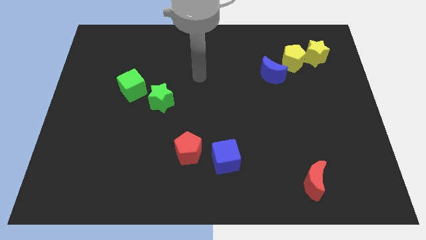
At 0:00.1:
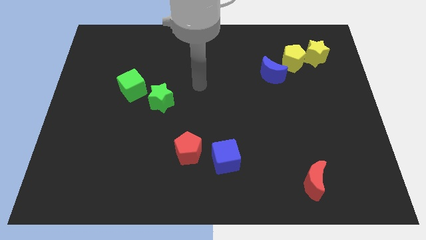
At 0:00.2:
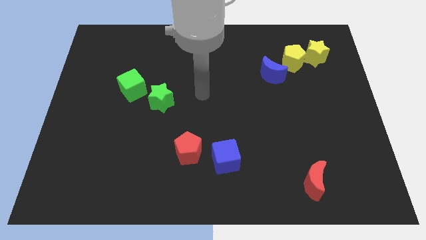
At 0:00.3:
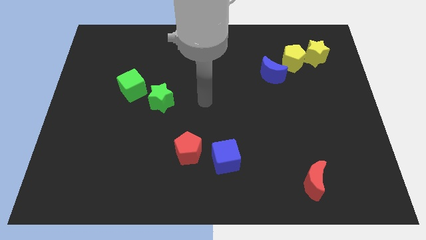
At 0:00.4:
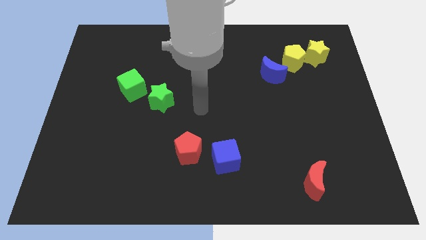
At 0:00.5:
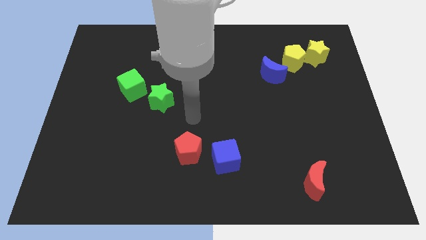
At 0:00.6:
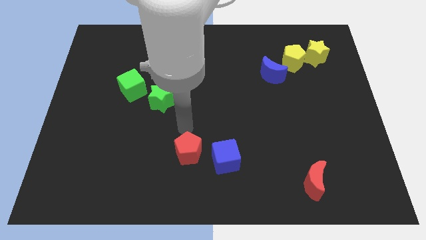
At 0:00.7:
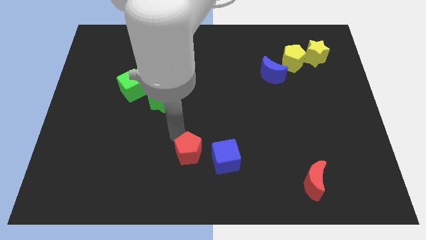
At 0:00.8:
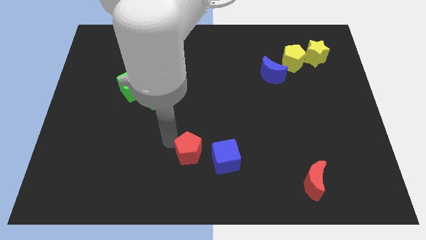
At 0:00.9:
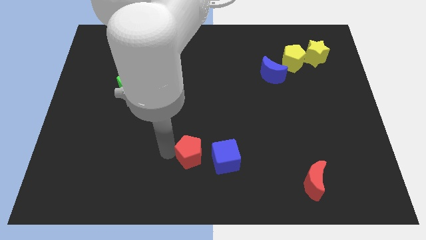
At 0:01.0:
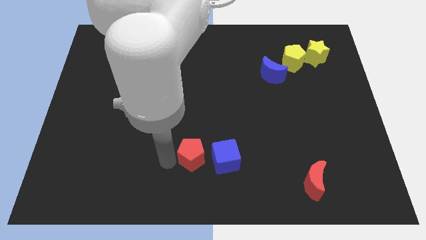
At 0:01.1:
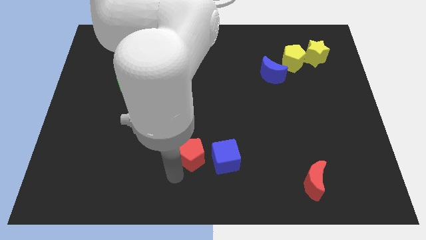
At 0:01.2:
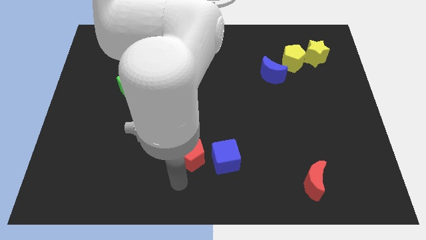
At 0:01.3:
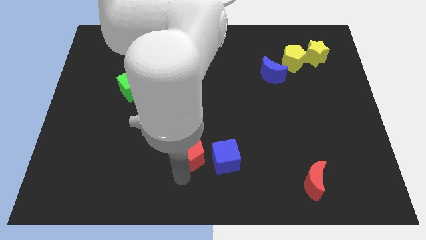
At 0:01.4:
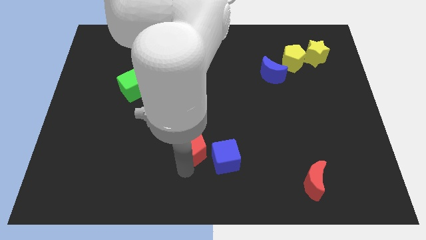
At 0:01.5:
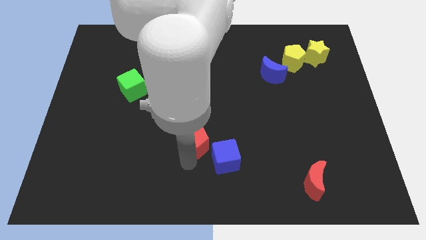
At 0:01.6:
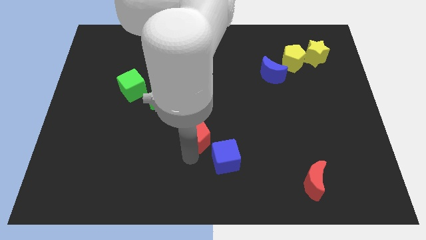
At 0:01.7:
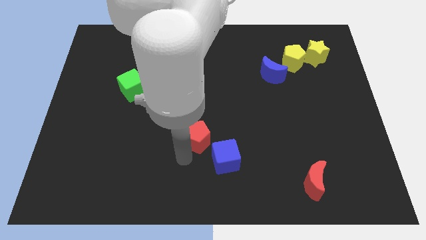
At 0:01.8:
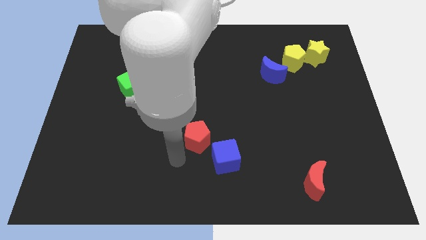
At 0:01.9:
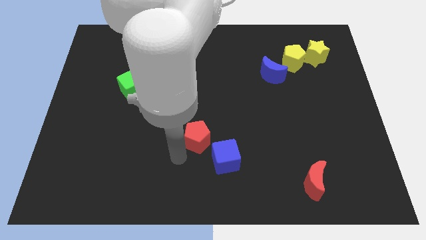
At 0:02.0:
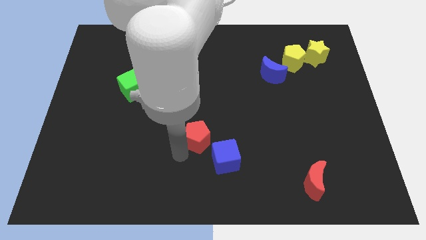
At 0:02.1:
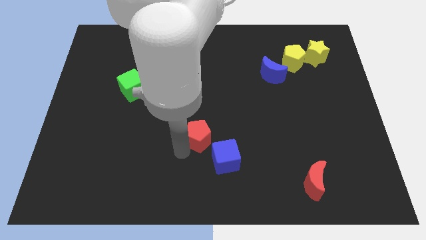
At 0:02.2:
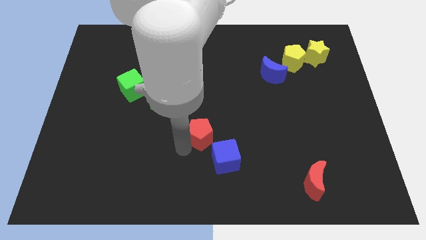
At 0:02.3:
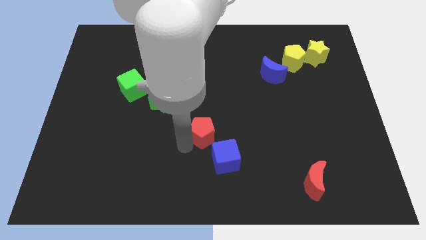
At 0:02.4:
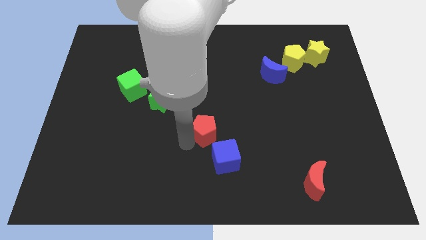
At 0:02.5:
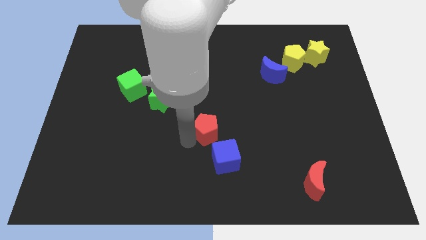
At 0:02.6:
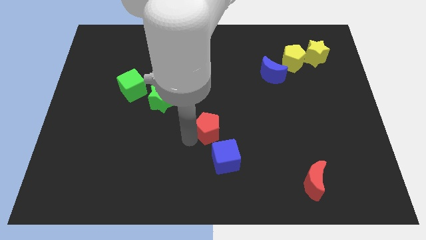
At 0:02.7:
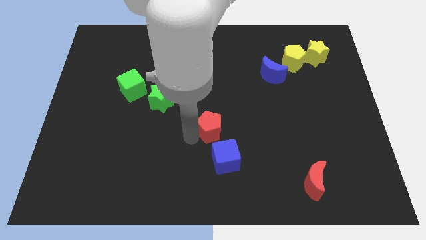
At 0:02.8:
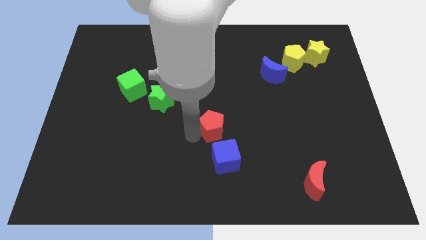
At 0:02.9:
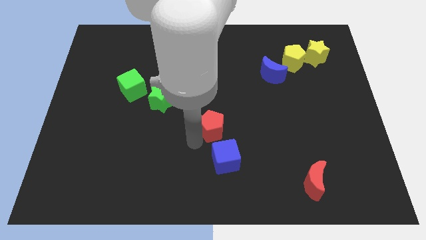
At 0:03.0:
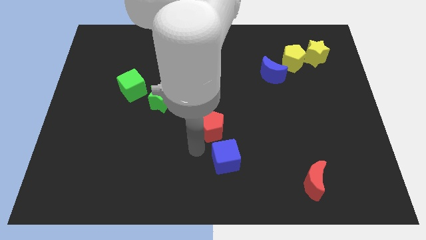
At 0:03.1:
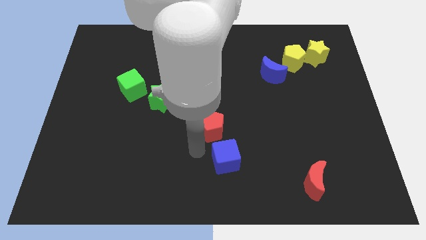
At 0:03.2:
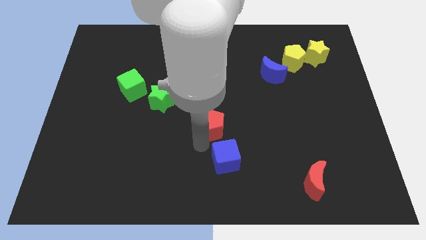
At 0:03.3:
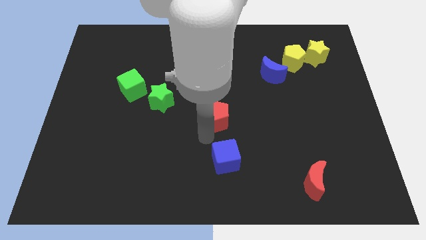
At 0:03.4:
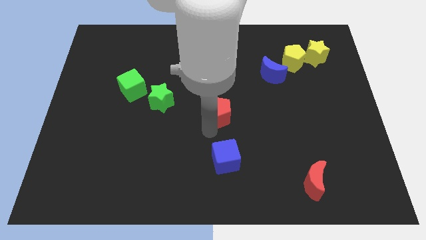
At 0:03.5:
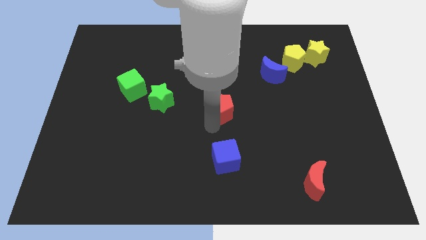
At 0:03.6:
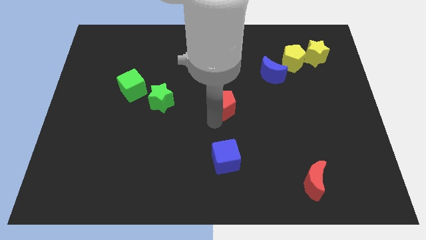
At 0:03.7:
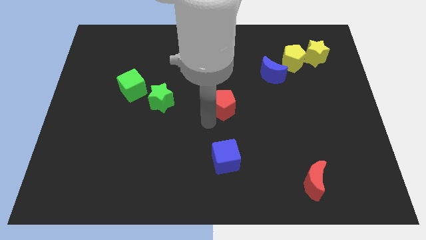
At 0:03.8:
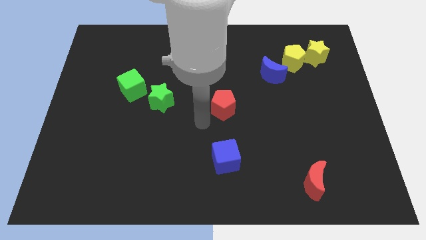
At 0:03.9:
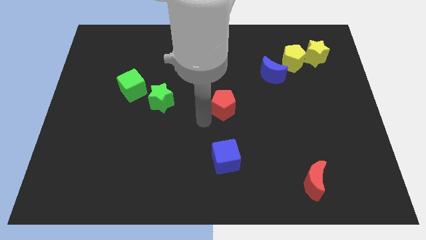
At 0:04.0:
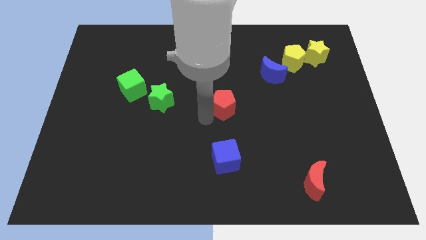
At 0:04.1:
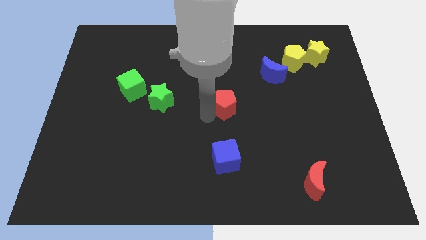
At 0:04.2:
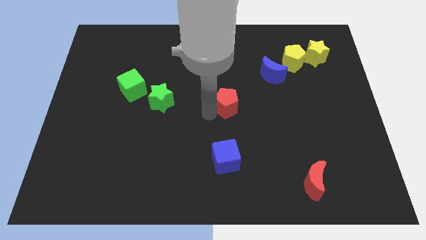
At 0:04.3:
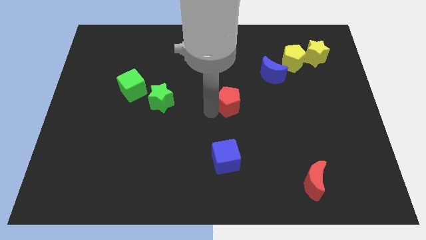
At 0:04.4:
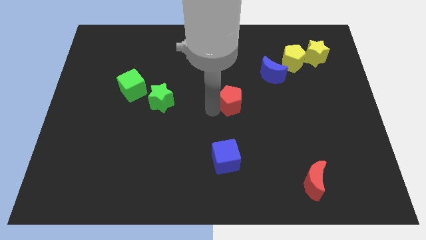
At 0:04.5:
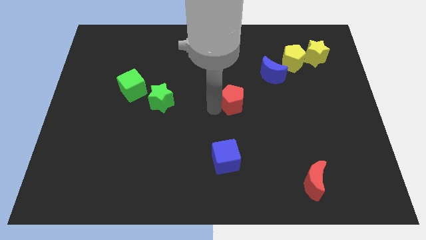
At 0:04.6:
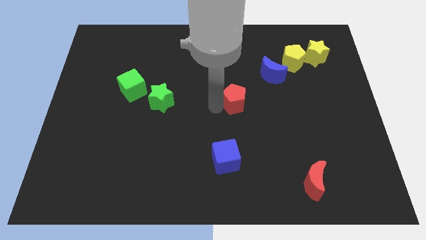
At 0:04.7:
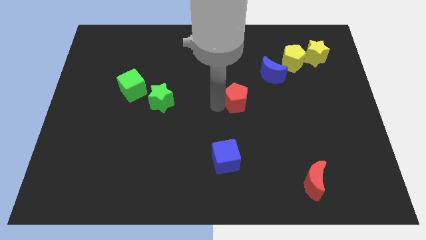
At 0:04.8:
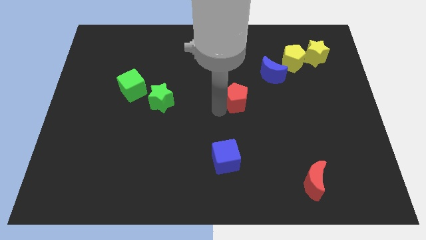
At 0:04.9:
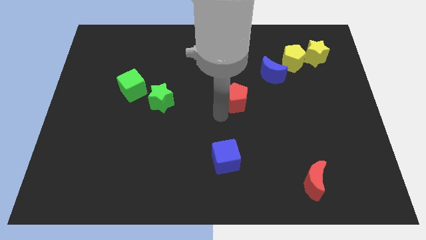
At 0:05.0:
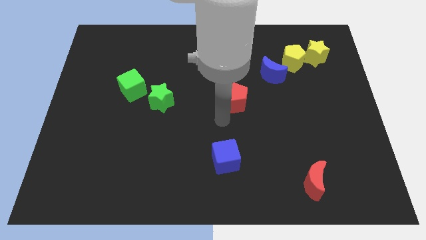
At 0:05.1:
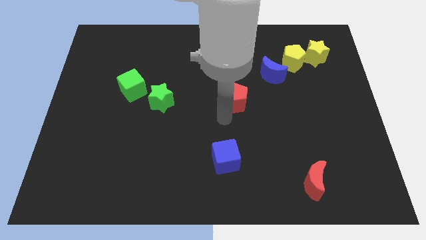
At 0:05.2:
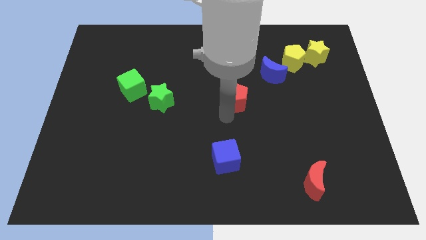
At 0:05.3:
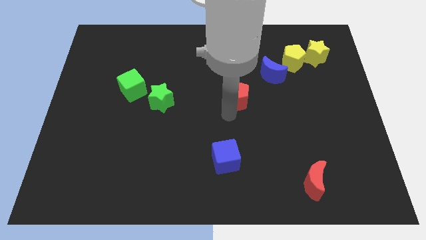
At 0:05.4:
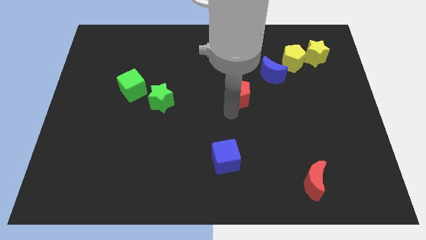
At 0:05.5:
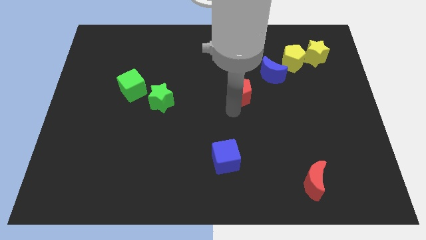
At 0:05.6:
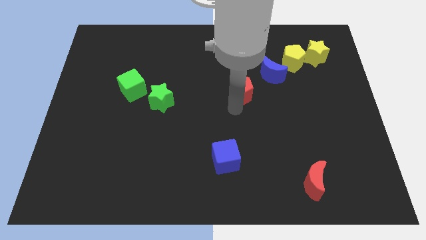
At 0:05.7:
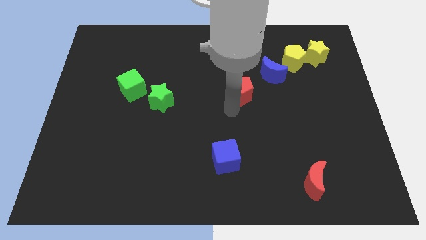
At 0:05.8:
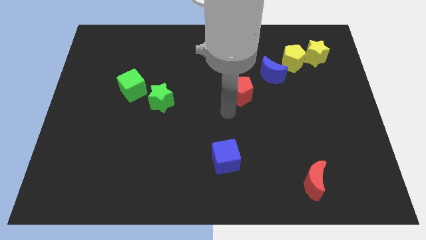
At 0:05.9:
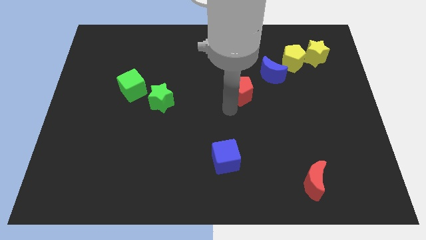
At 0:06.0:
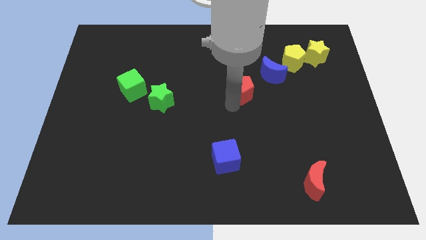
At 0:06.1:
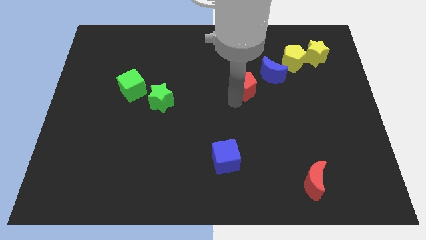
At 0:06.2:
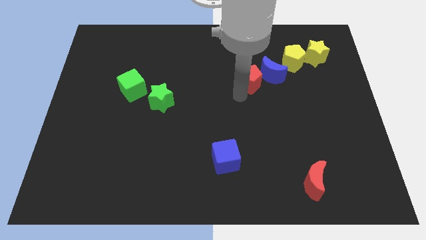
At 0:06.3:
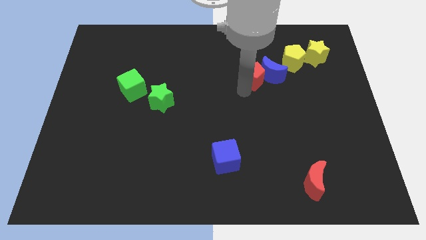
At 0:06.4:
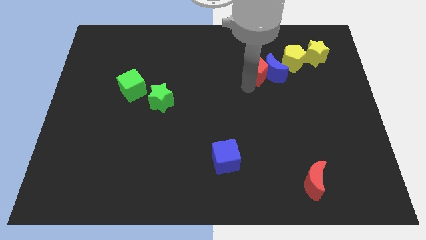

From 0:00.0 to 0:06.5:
move the red pentagon to the left of the yellow pentagon

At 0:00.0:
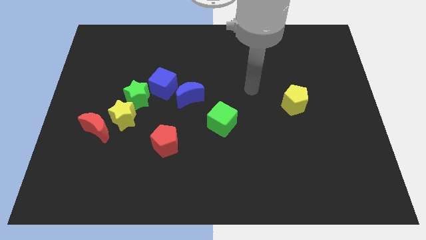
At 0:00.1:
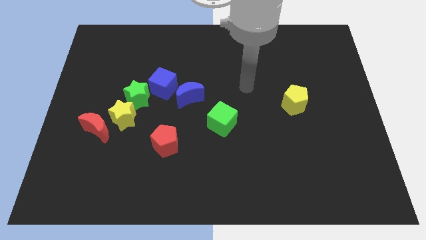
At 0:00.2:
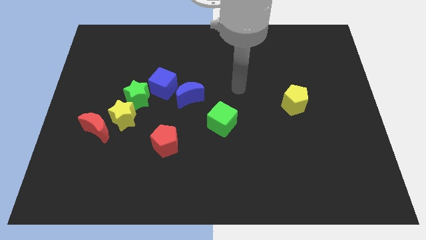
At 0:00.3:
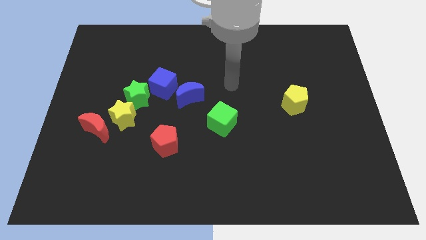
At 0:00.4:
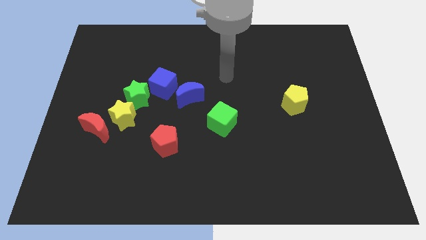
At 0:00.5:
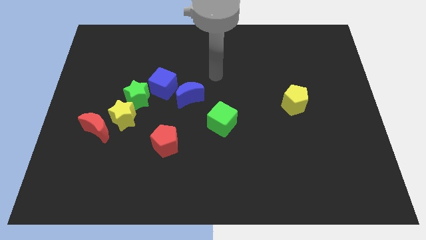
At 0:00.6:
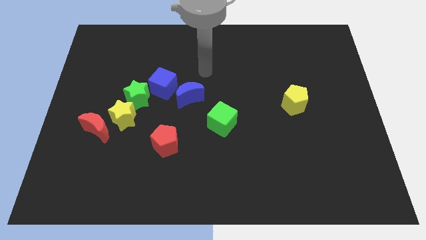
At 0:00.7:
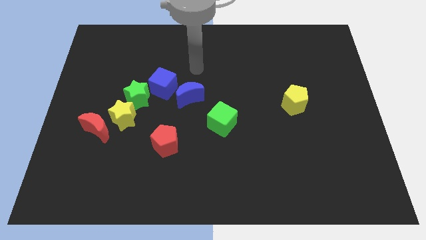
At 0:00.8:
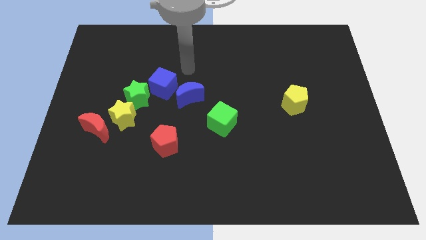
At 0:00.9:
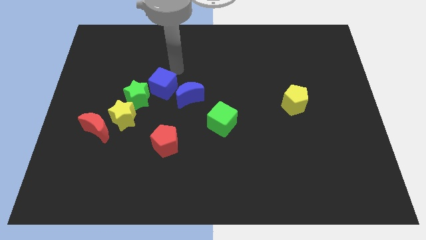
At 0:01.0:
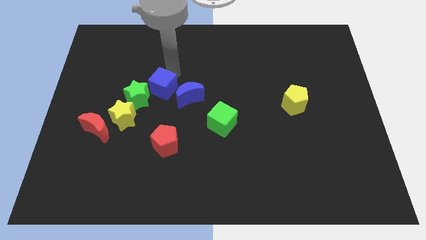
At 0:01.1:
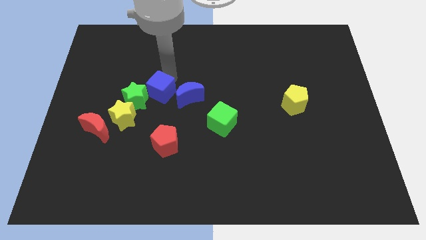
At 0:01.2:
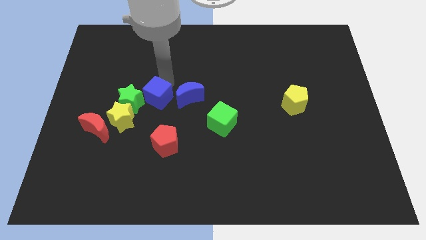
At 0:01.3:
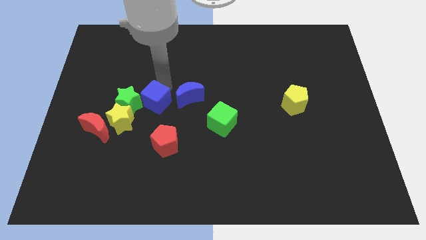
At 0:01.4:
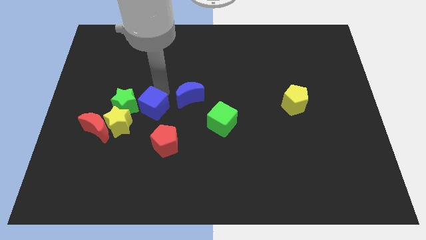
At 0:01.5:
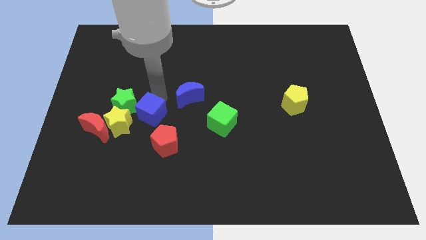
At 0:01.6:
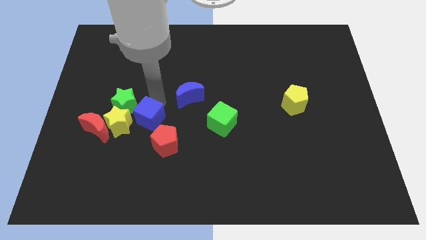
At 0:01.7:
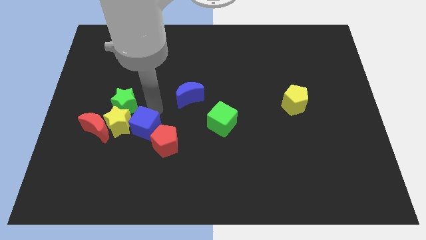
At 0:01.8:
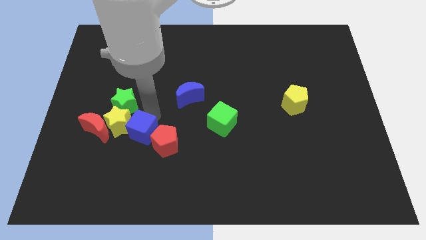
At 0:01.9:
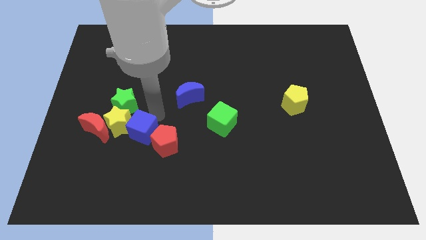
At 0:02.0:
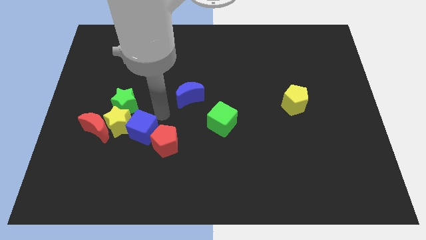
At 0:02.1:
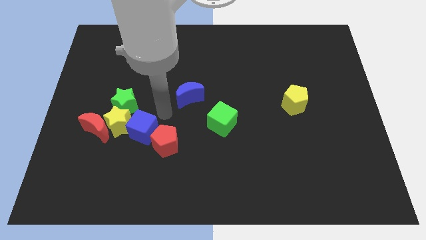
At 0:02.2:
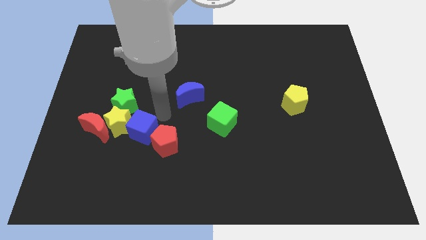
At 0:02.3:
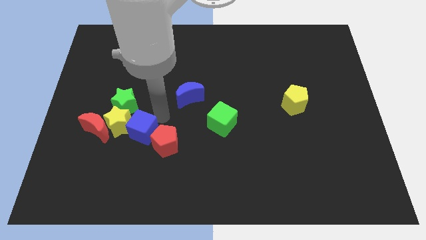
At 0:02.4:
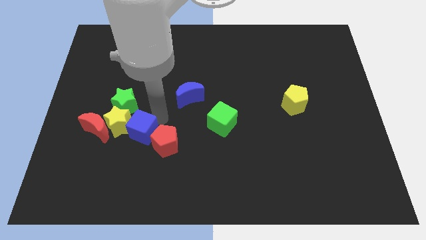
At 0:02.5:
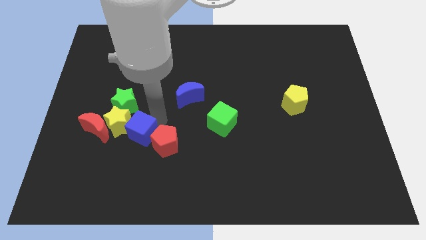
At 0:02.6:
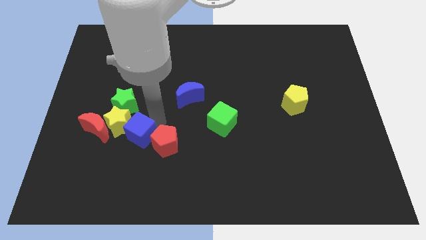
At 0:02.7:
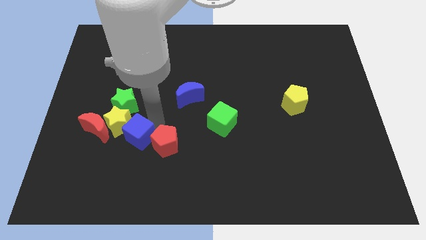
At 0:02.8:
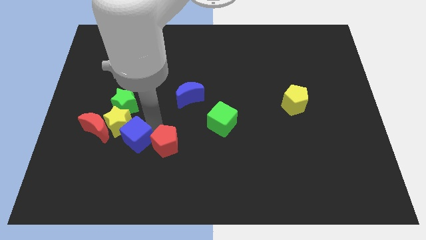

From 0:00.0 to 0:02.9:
put the blue cube to the bottom of the yellow star
